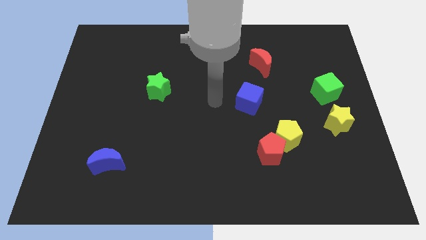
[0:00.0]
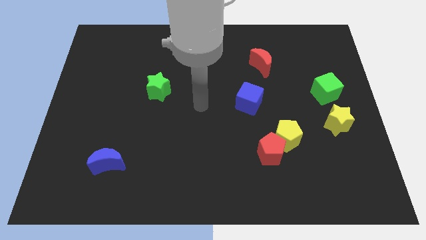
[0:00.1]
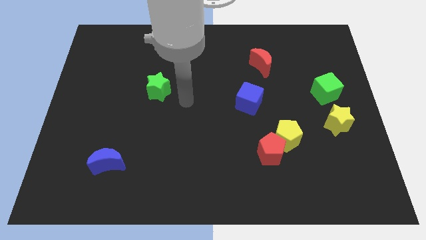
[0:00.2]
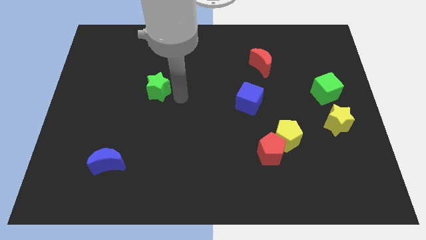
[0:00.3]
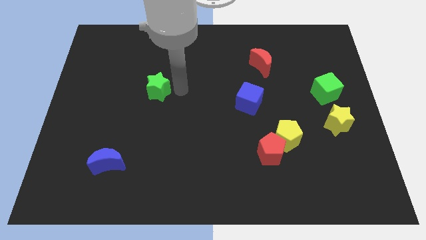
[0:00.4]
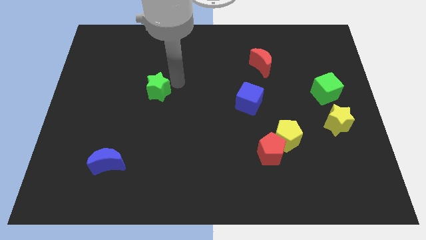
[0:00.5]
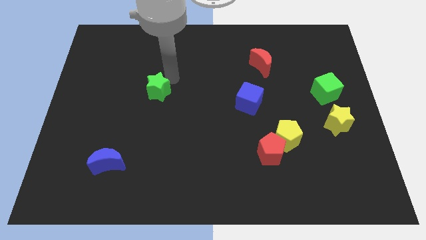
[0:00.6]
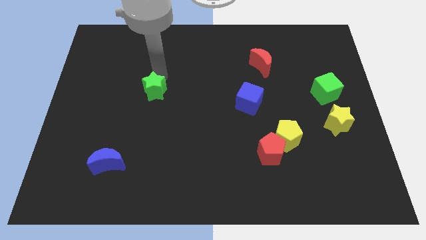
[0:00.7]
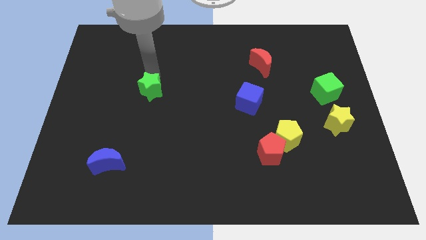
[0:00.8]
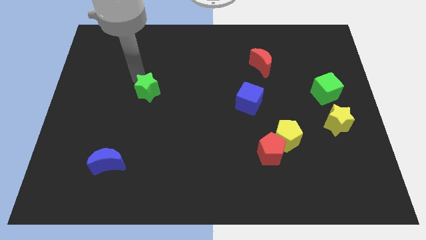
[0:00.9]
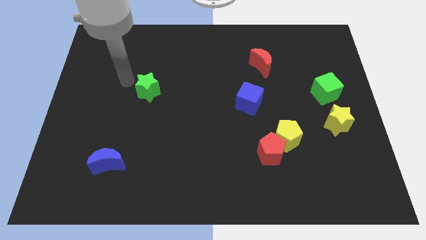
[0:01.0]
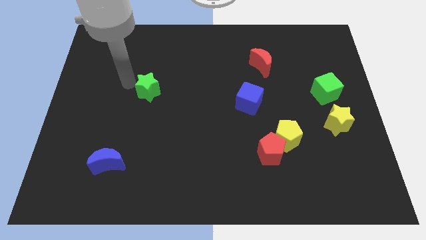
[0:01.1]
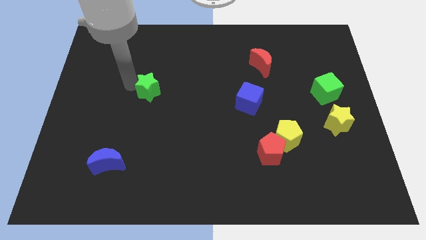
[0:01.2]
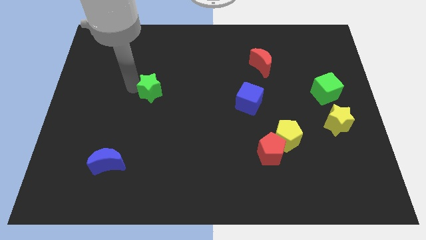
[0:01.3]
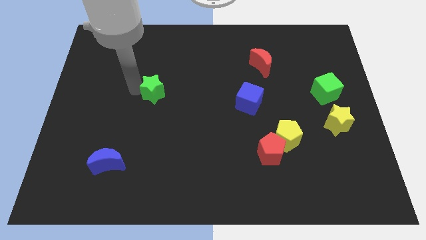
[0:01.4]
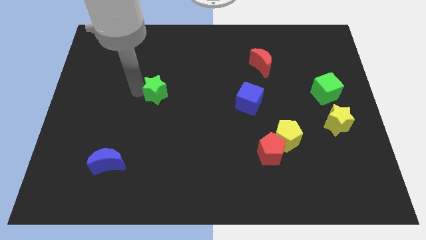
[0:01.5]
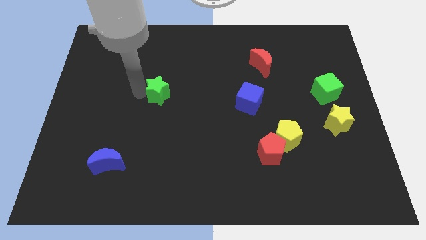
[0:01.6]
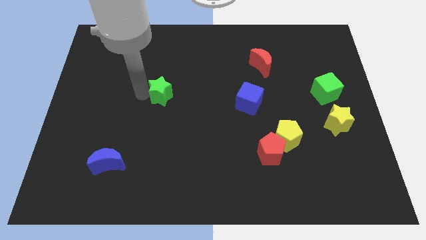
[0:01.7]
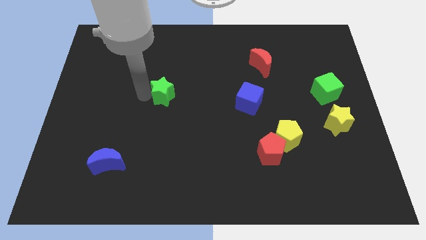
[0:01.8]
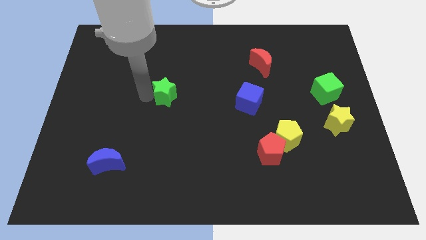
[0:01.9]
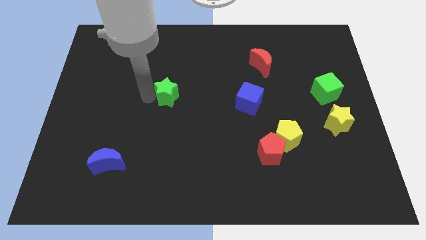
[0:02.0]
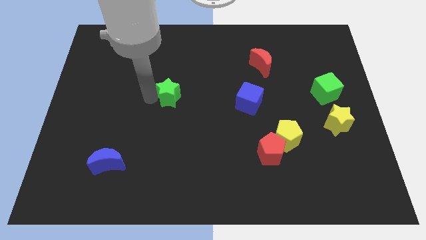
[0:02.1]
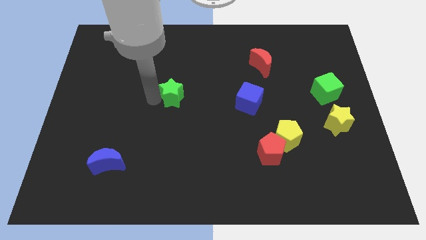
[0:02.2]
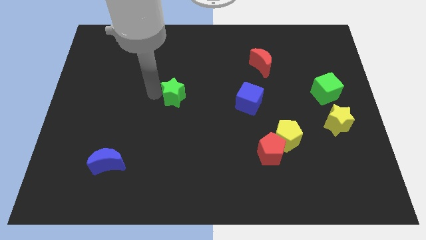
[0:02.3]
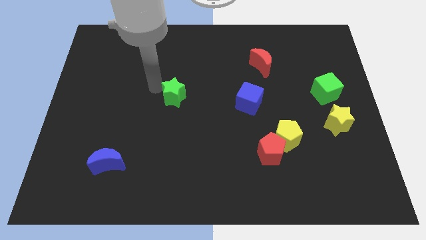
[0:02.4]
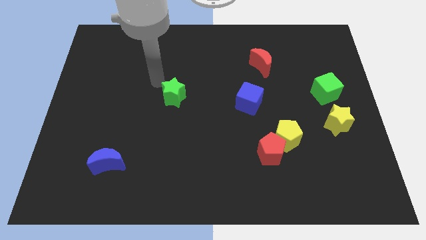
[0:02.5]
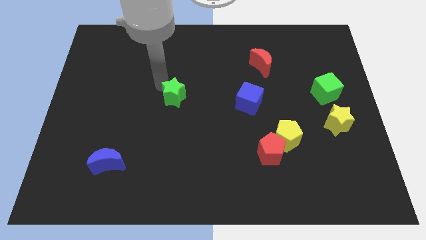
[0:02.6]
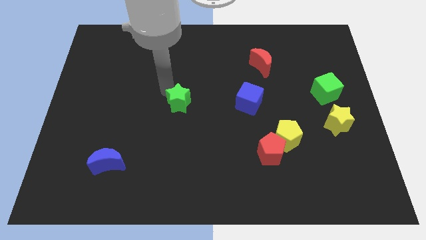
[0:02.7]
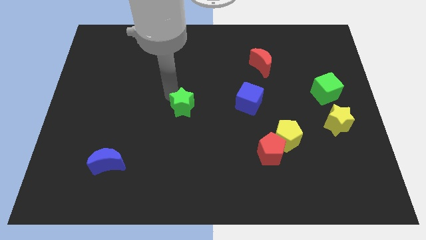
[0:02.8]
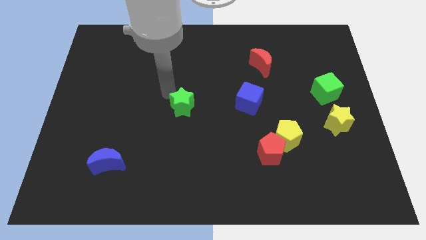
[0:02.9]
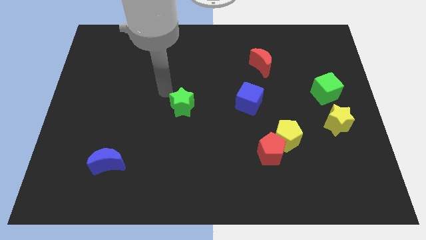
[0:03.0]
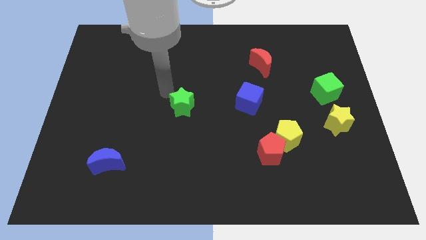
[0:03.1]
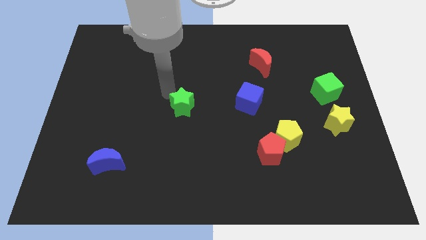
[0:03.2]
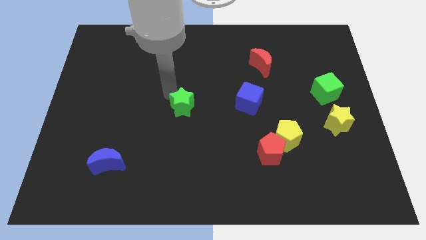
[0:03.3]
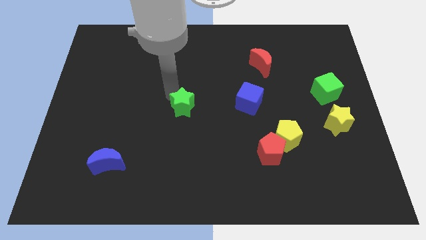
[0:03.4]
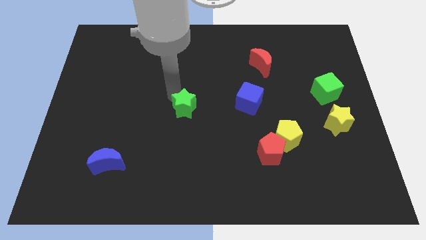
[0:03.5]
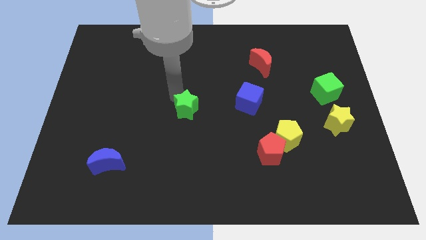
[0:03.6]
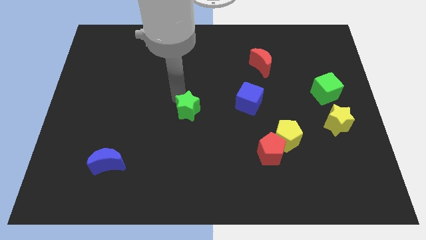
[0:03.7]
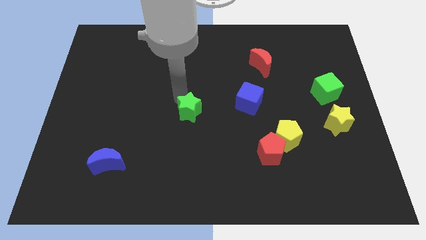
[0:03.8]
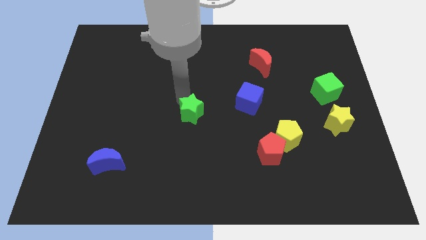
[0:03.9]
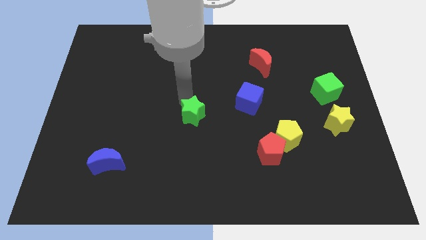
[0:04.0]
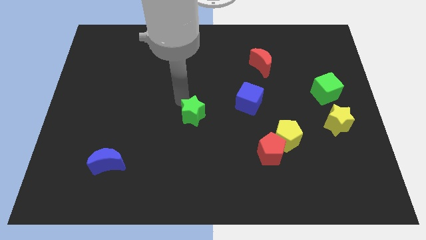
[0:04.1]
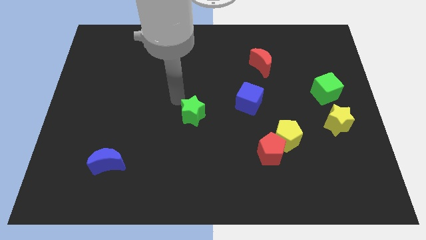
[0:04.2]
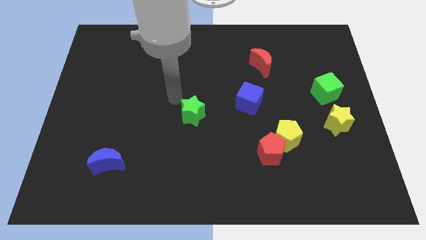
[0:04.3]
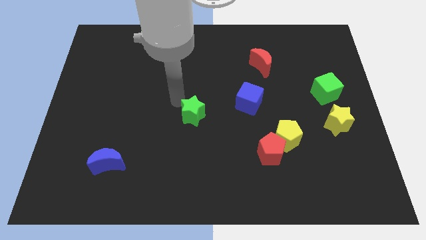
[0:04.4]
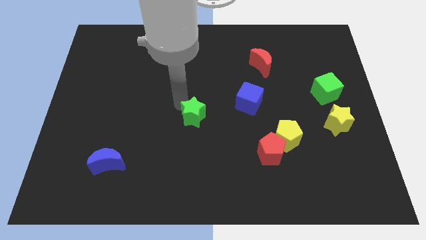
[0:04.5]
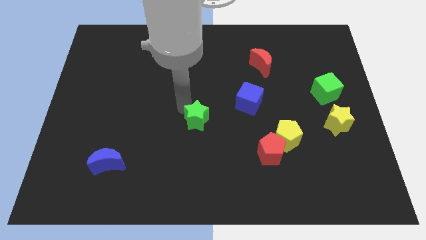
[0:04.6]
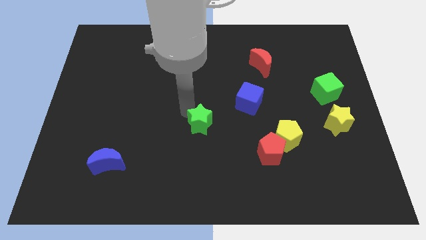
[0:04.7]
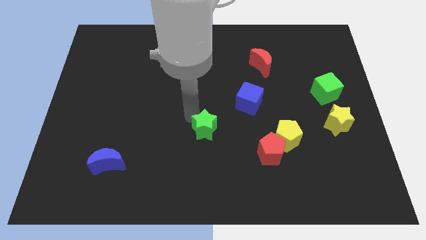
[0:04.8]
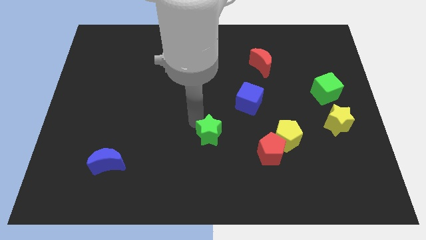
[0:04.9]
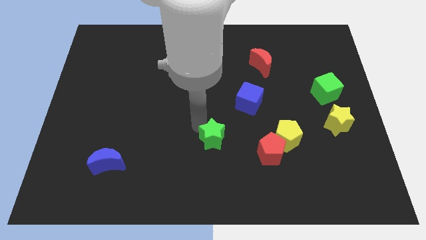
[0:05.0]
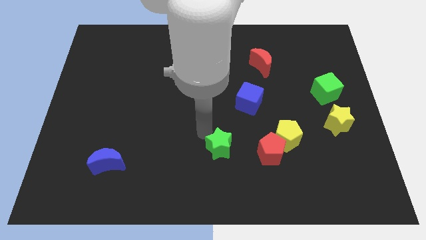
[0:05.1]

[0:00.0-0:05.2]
move the green star down and right diagonally

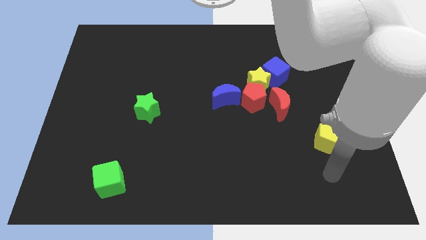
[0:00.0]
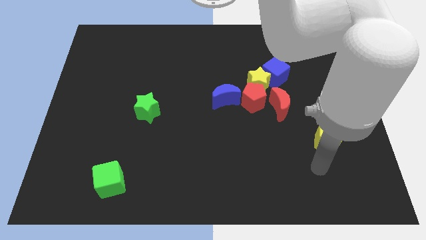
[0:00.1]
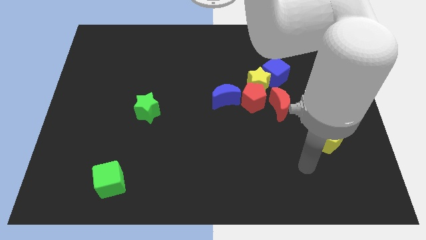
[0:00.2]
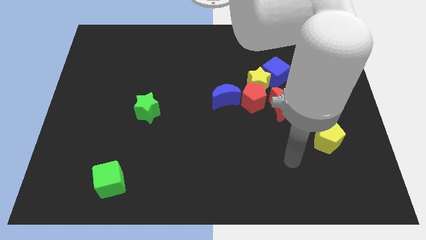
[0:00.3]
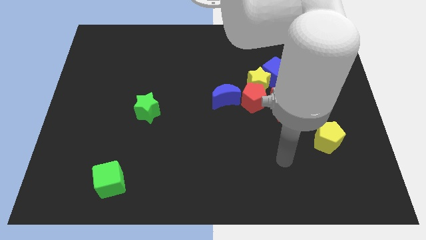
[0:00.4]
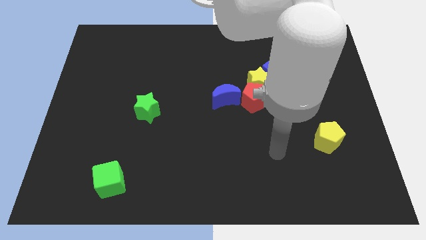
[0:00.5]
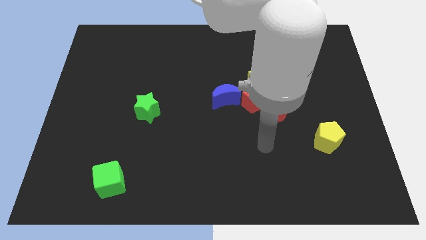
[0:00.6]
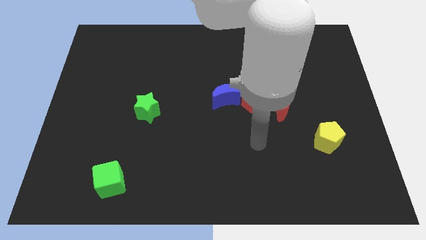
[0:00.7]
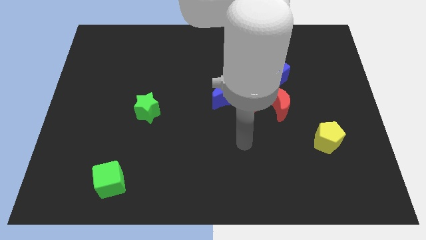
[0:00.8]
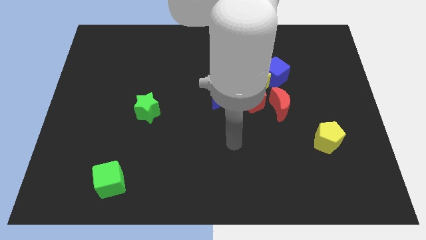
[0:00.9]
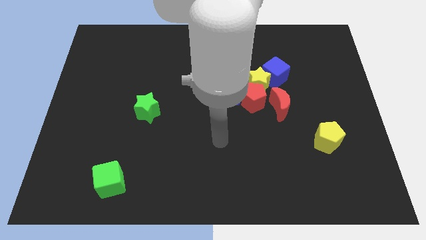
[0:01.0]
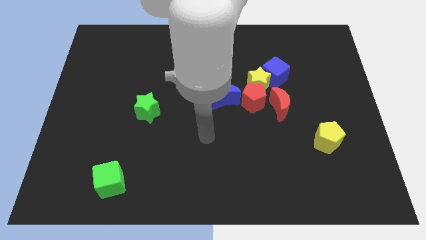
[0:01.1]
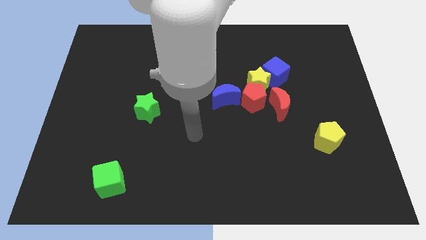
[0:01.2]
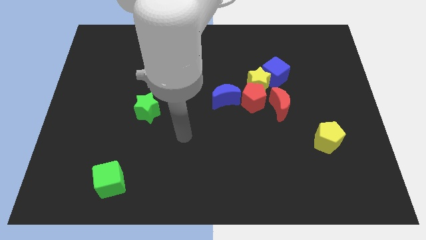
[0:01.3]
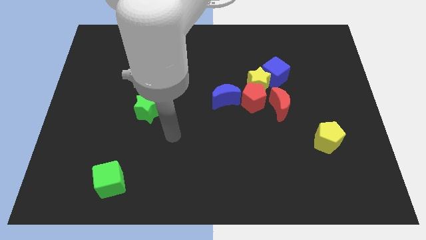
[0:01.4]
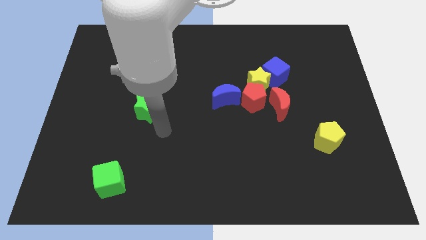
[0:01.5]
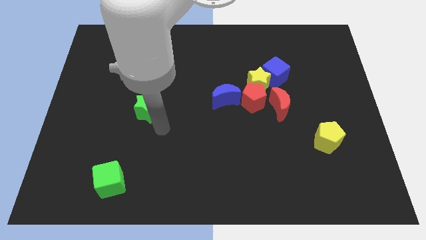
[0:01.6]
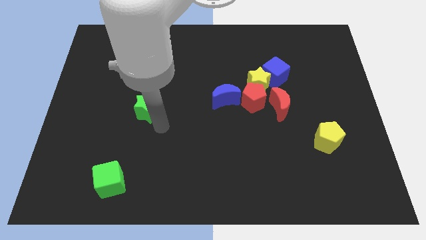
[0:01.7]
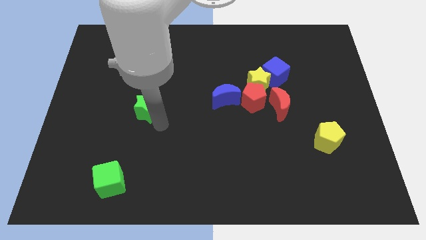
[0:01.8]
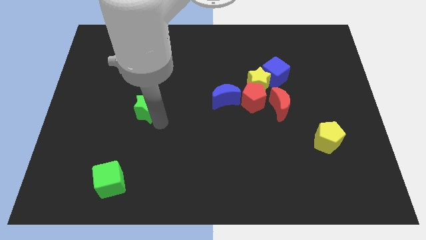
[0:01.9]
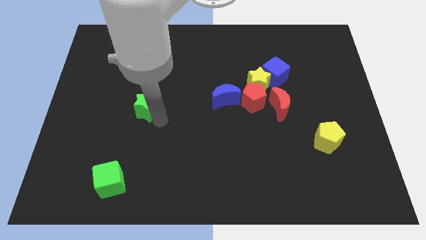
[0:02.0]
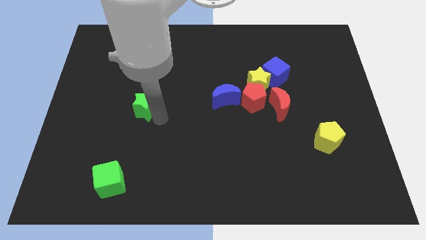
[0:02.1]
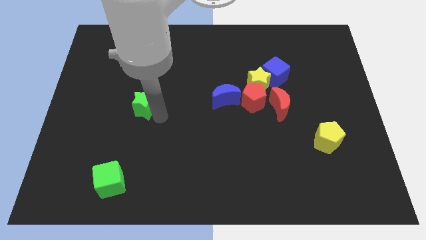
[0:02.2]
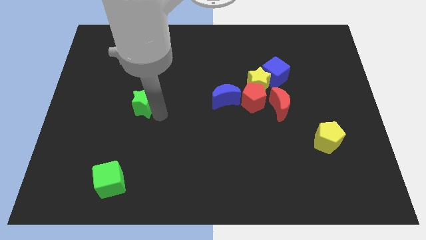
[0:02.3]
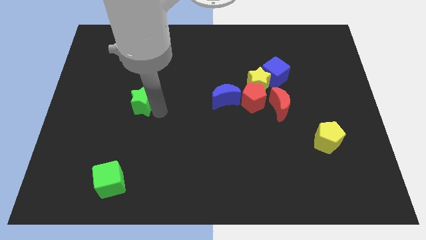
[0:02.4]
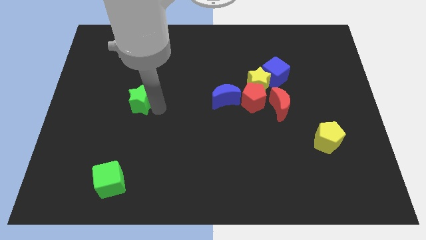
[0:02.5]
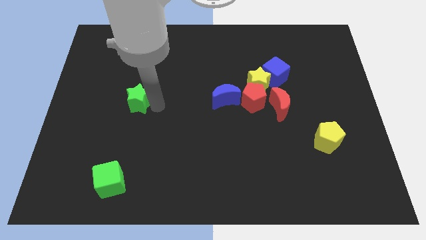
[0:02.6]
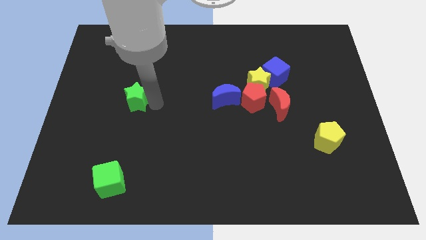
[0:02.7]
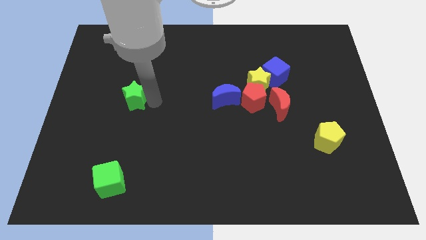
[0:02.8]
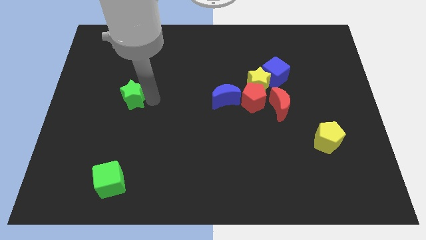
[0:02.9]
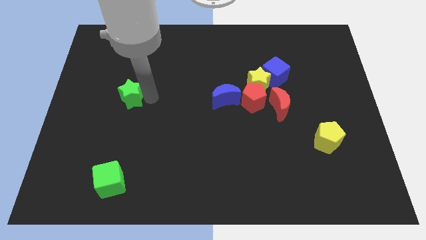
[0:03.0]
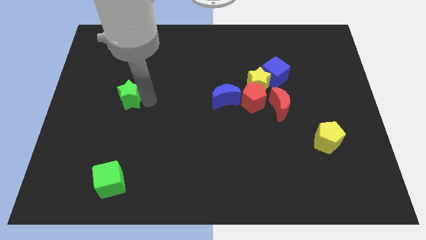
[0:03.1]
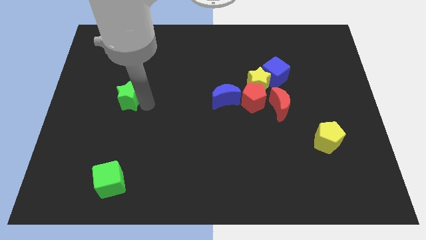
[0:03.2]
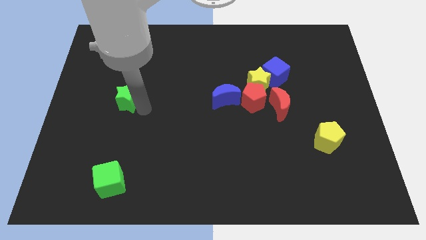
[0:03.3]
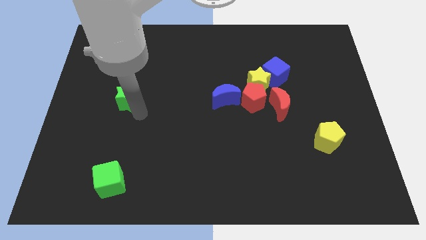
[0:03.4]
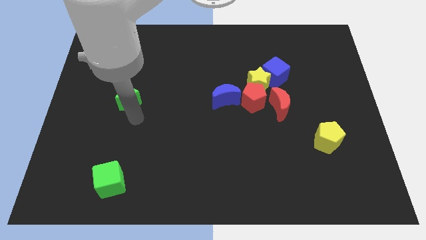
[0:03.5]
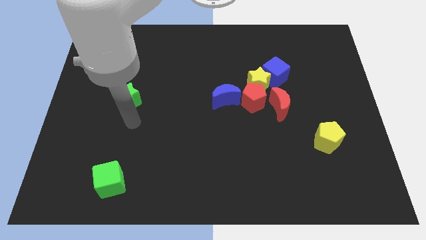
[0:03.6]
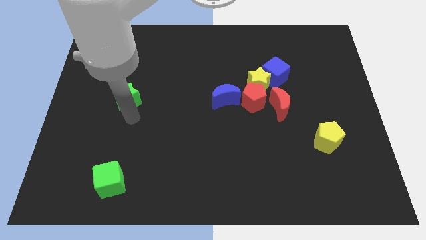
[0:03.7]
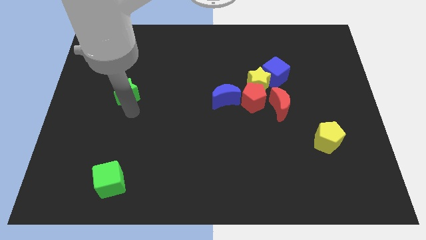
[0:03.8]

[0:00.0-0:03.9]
push the green star up and left a little bit
